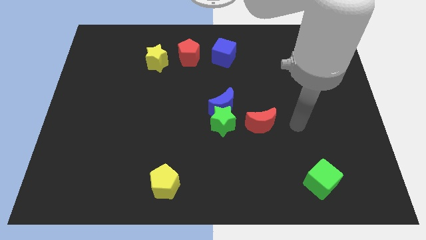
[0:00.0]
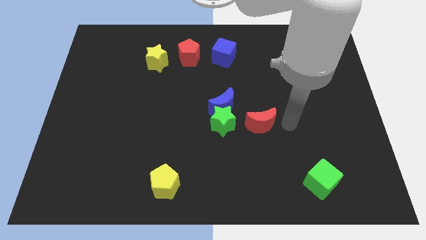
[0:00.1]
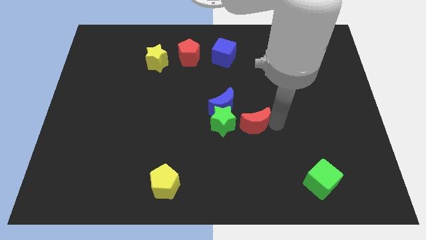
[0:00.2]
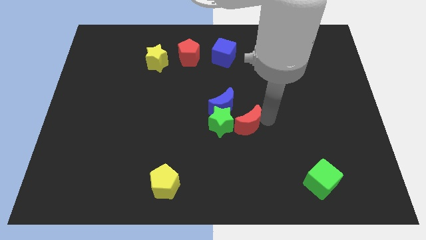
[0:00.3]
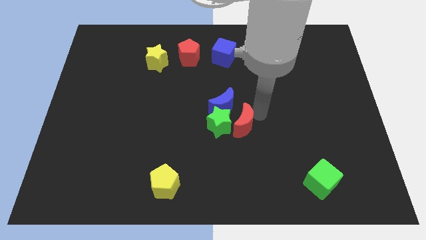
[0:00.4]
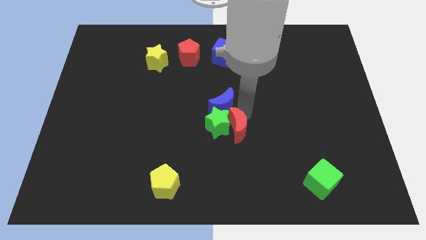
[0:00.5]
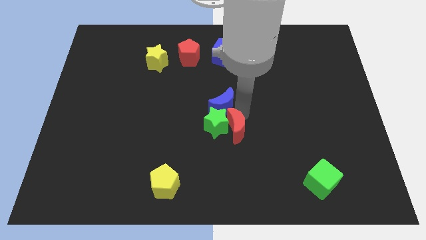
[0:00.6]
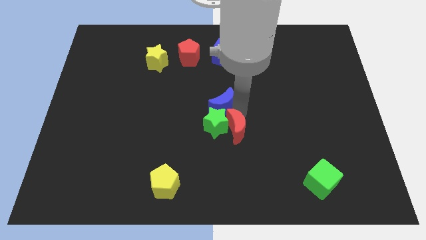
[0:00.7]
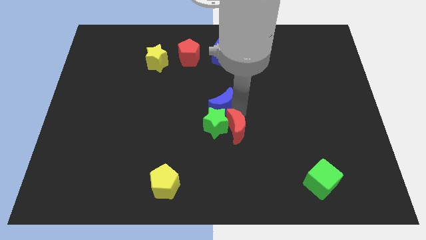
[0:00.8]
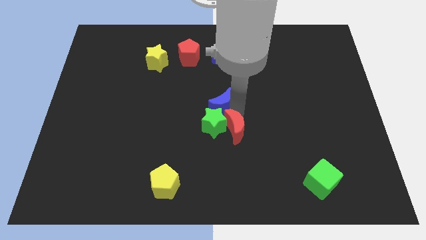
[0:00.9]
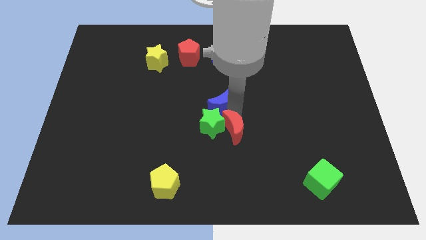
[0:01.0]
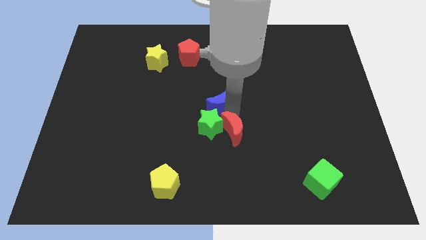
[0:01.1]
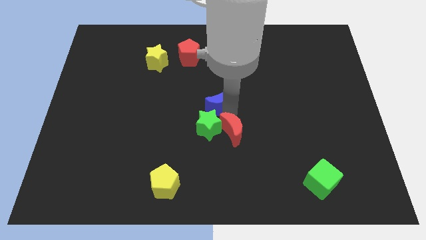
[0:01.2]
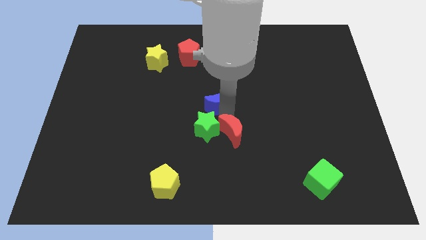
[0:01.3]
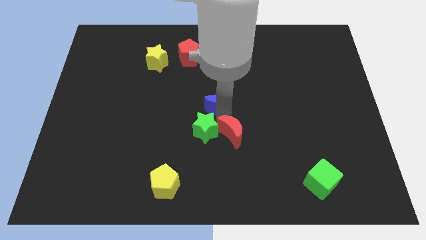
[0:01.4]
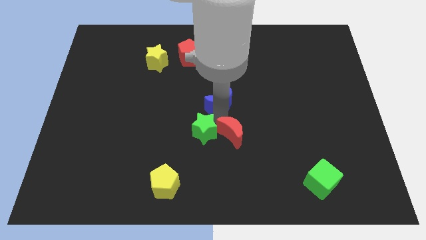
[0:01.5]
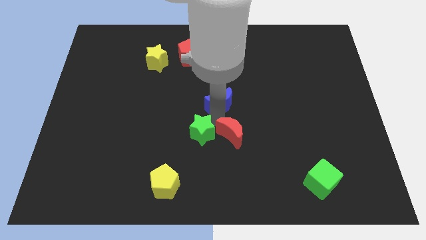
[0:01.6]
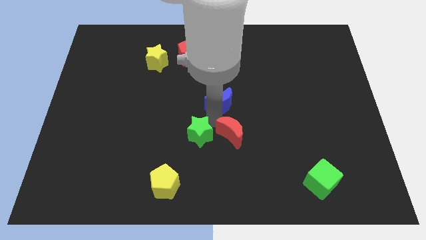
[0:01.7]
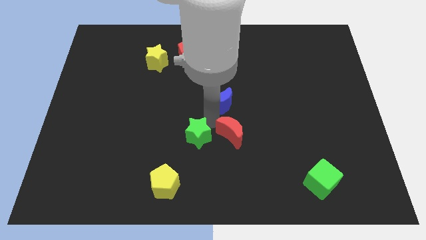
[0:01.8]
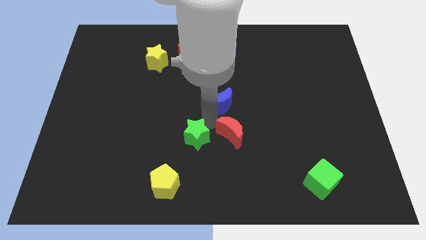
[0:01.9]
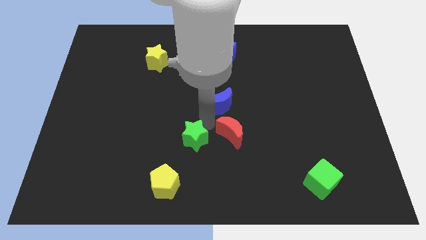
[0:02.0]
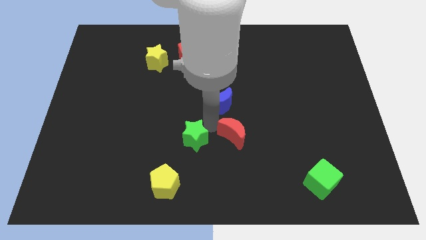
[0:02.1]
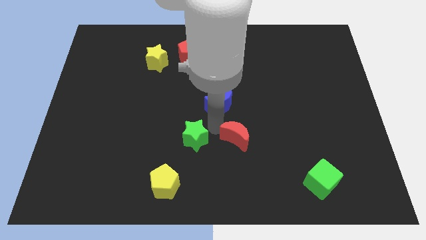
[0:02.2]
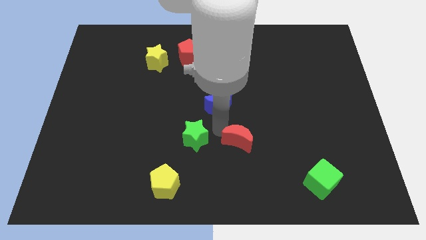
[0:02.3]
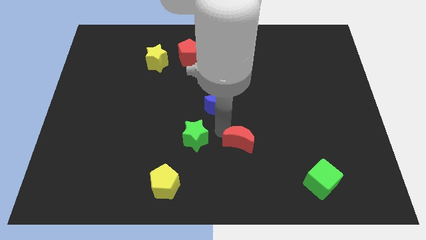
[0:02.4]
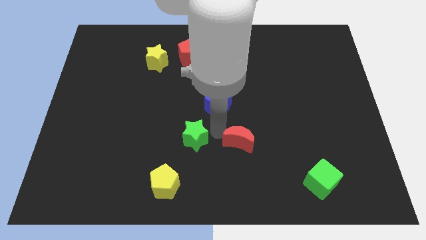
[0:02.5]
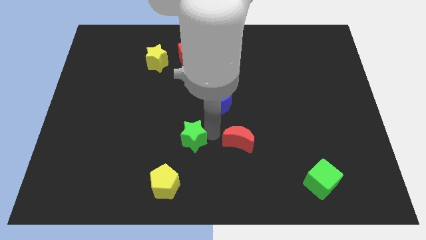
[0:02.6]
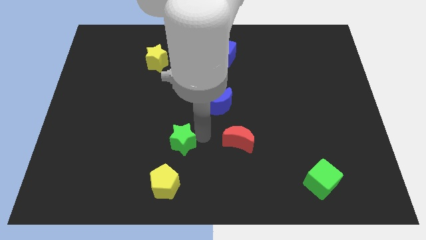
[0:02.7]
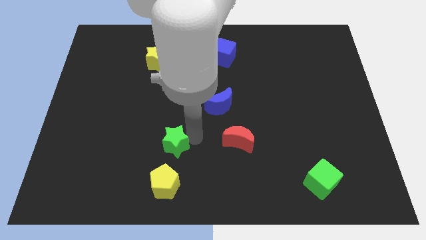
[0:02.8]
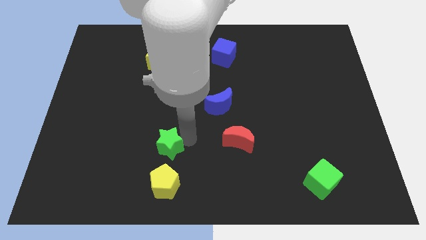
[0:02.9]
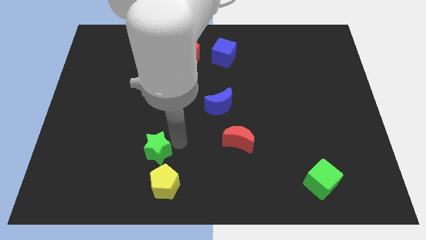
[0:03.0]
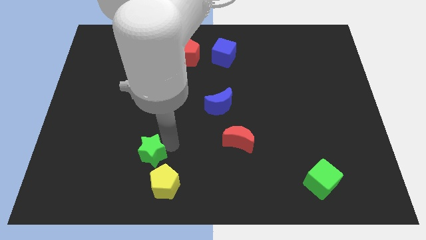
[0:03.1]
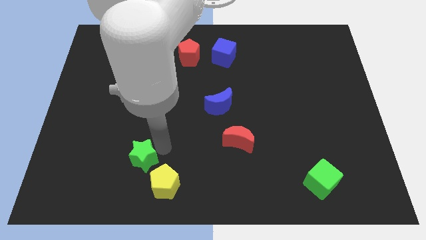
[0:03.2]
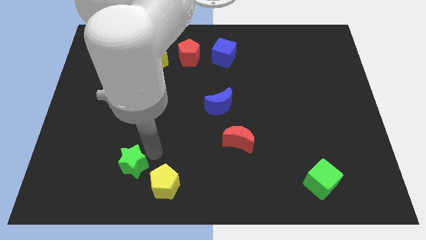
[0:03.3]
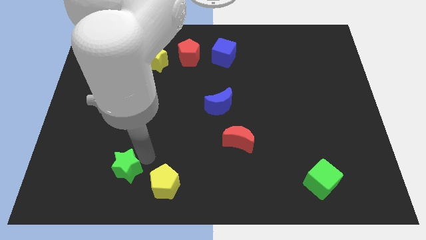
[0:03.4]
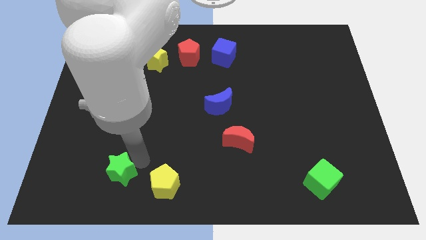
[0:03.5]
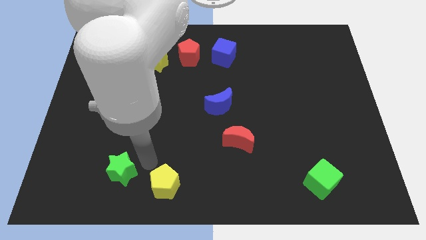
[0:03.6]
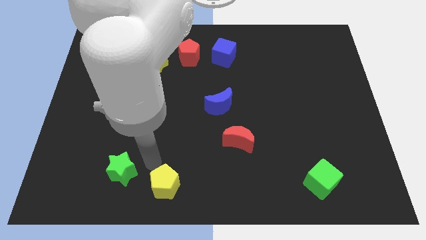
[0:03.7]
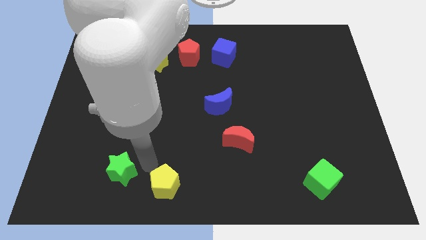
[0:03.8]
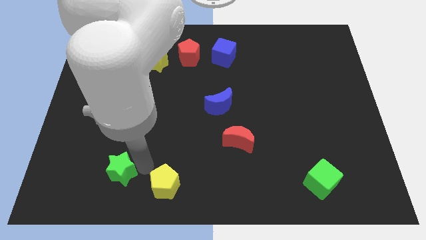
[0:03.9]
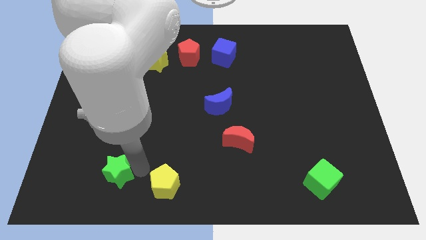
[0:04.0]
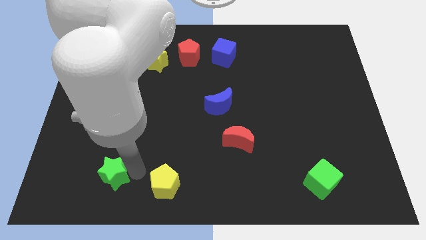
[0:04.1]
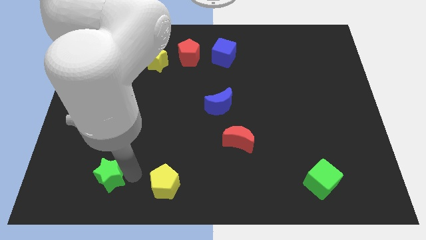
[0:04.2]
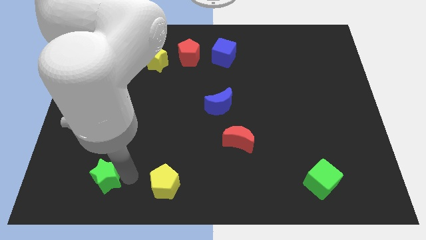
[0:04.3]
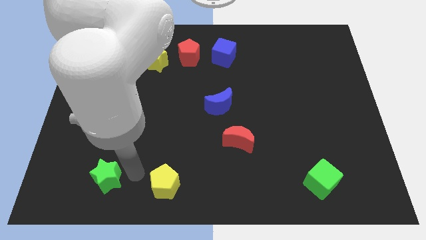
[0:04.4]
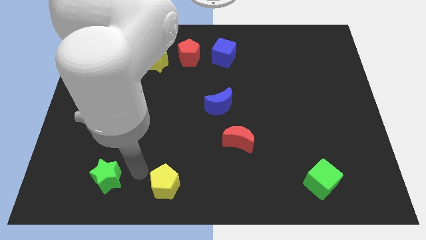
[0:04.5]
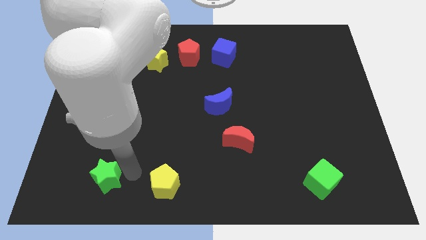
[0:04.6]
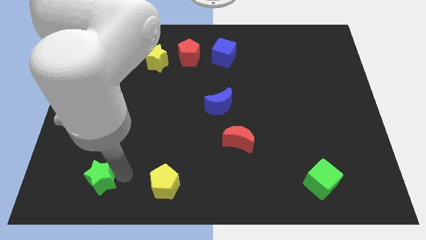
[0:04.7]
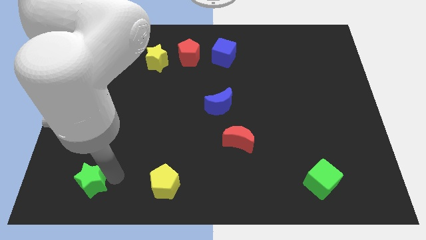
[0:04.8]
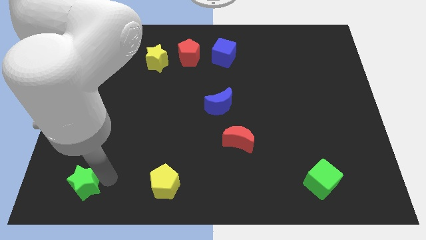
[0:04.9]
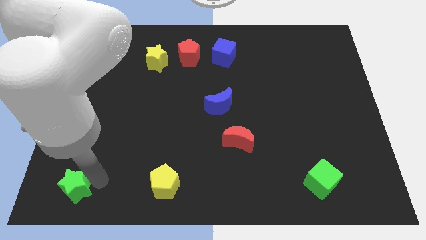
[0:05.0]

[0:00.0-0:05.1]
slide the green star to the lower left corner

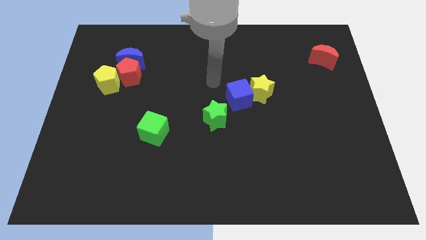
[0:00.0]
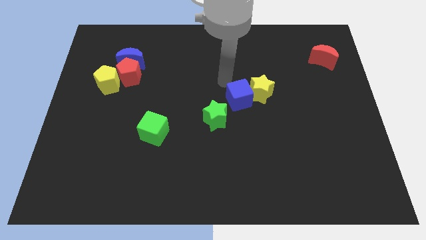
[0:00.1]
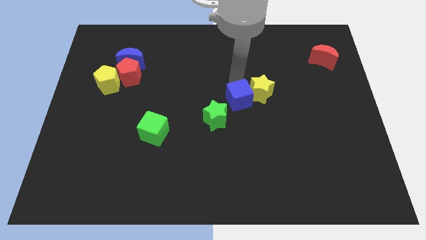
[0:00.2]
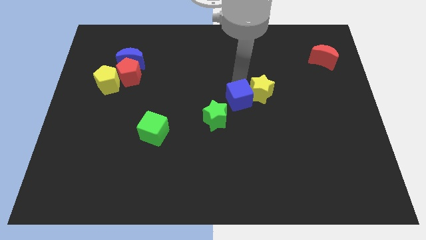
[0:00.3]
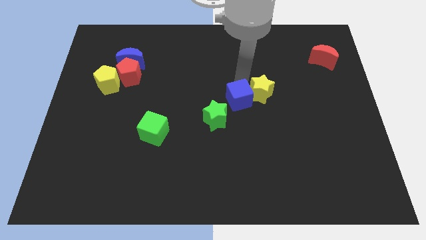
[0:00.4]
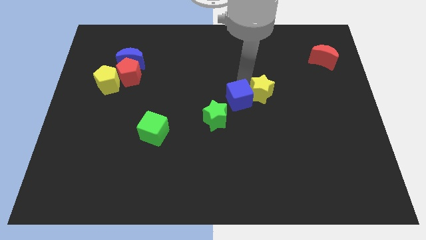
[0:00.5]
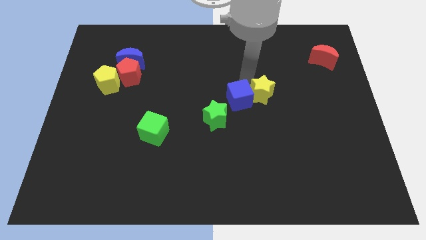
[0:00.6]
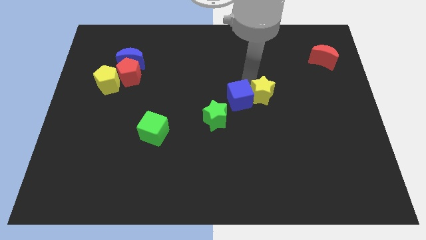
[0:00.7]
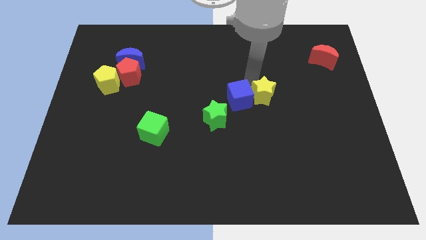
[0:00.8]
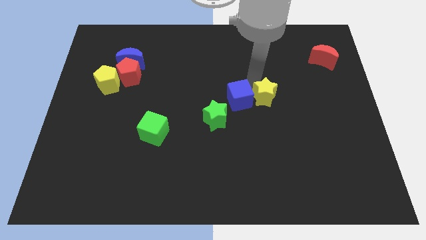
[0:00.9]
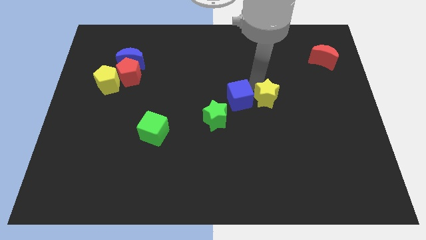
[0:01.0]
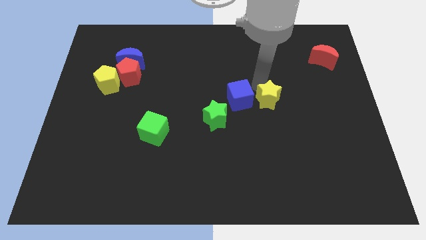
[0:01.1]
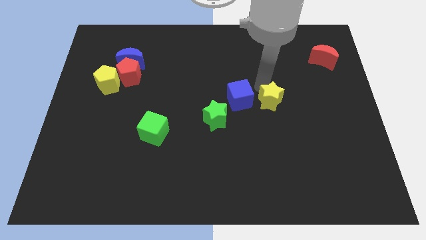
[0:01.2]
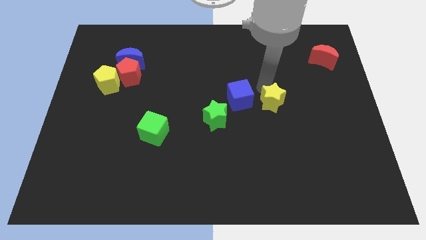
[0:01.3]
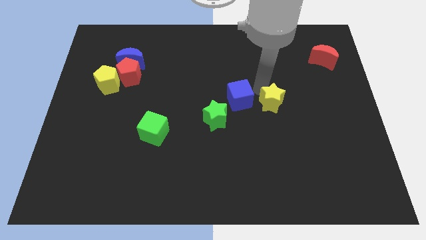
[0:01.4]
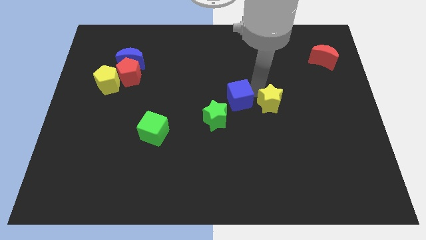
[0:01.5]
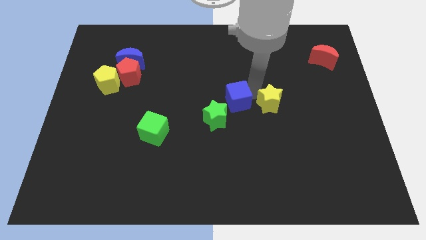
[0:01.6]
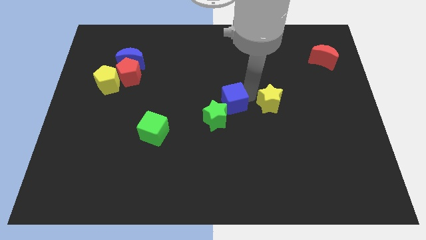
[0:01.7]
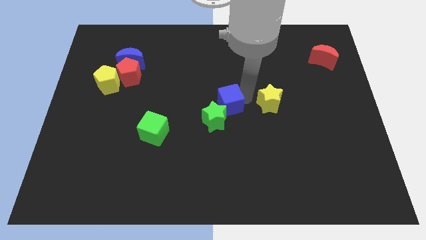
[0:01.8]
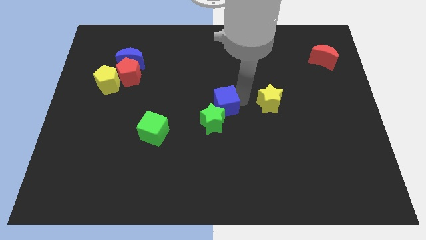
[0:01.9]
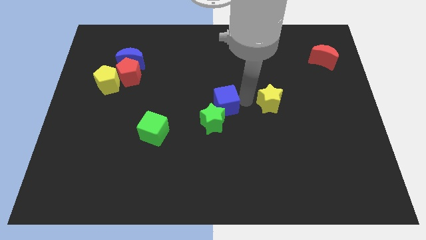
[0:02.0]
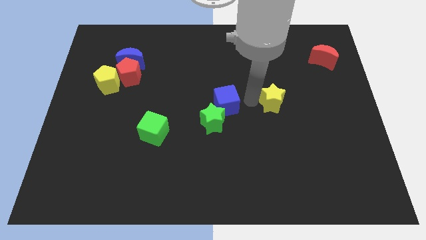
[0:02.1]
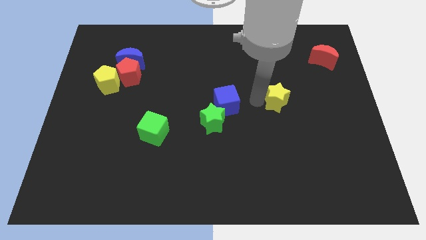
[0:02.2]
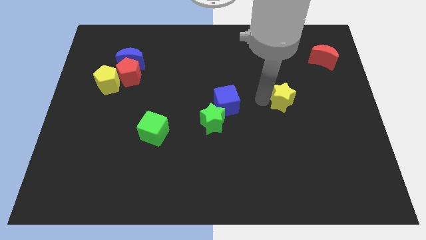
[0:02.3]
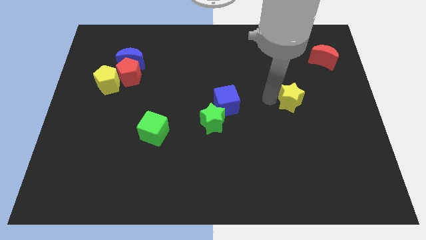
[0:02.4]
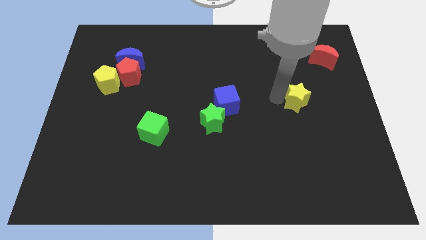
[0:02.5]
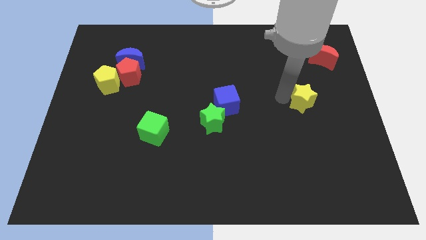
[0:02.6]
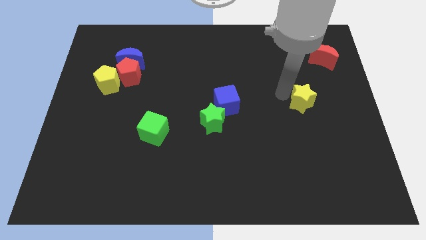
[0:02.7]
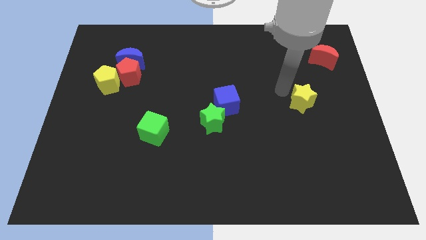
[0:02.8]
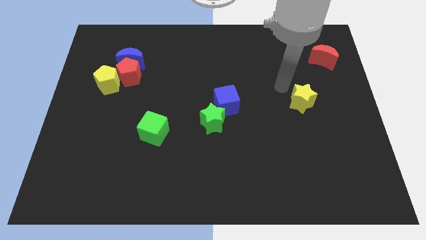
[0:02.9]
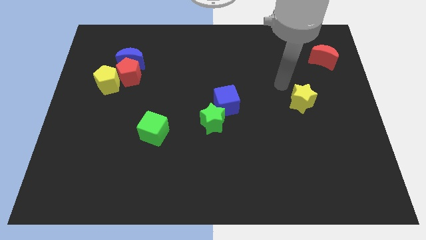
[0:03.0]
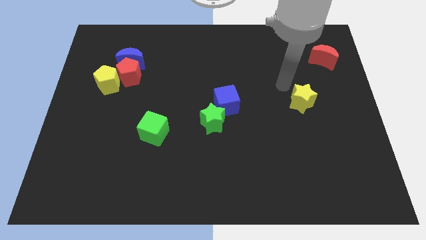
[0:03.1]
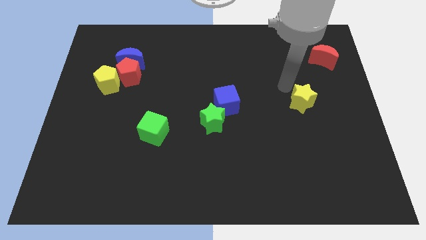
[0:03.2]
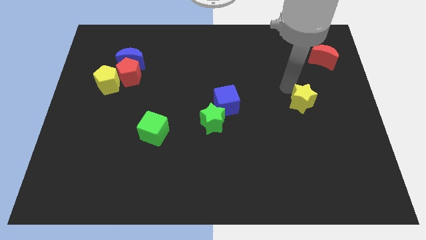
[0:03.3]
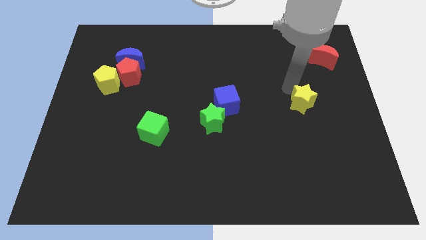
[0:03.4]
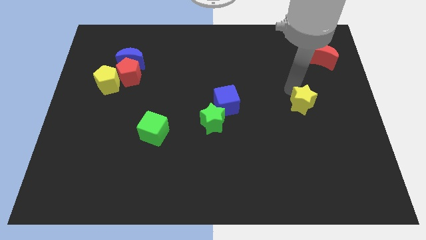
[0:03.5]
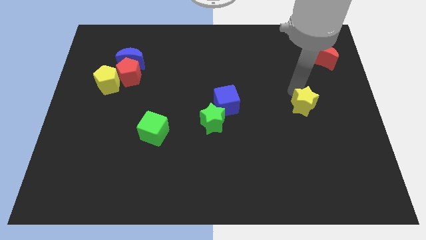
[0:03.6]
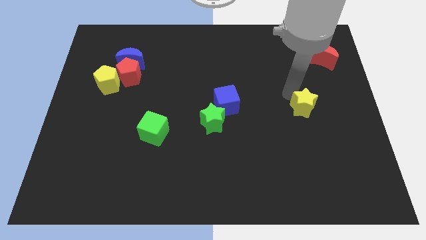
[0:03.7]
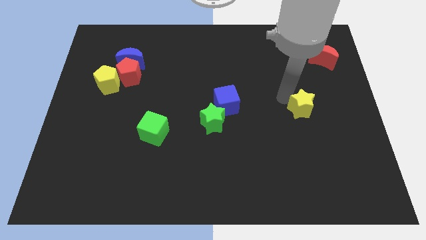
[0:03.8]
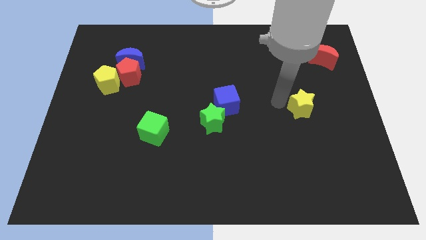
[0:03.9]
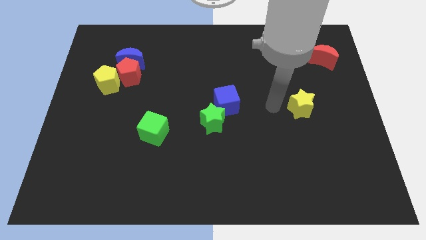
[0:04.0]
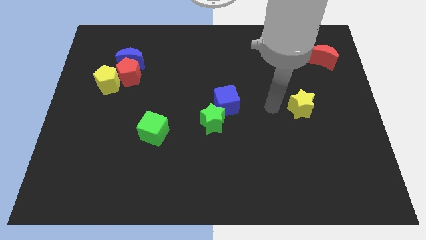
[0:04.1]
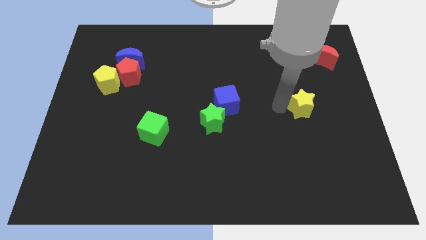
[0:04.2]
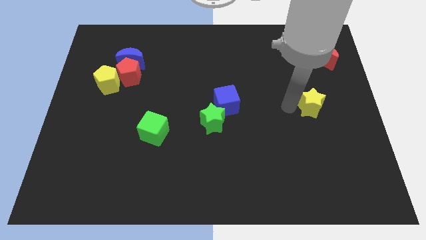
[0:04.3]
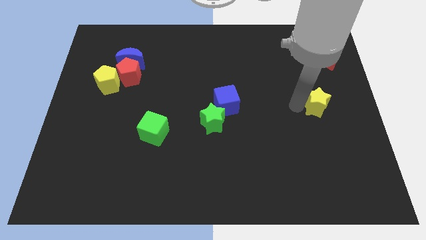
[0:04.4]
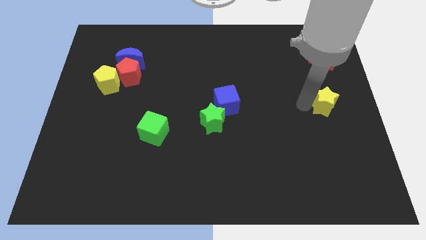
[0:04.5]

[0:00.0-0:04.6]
slide the yellow star to the center right
